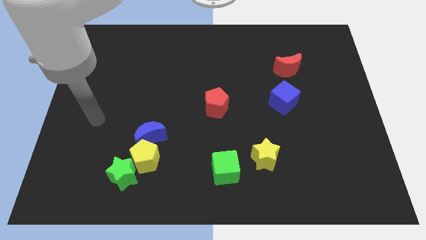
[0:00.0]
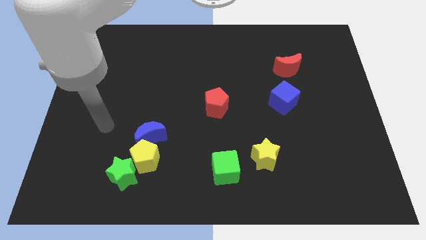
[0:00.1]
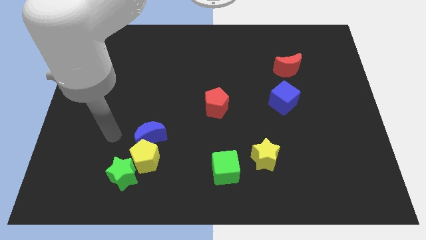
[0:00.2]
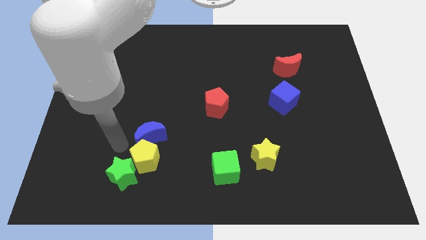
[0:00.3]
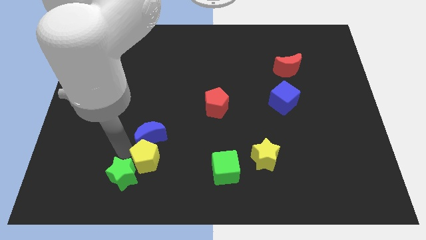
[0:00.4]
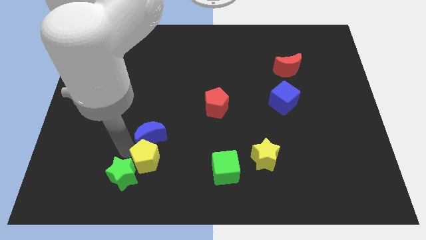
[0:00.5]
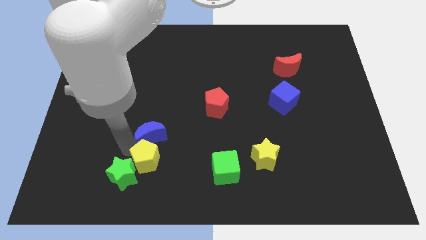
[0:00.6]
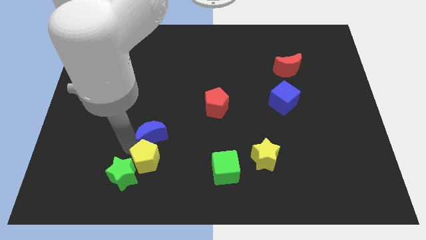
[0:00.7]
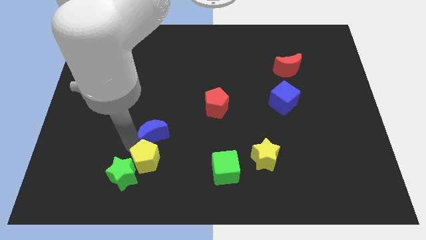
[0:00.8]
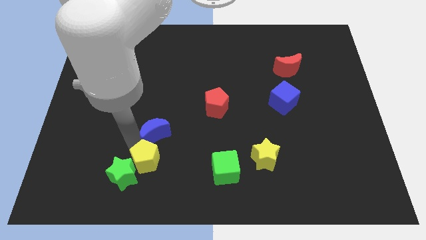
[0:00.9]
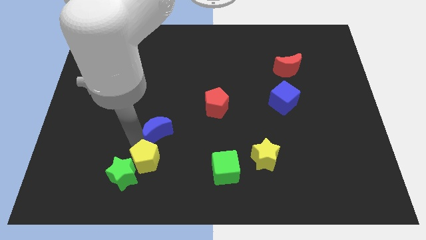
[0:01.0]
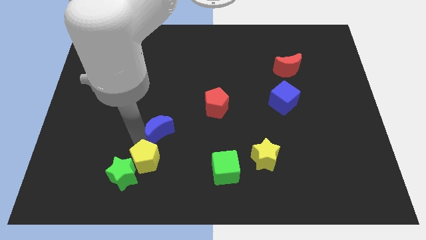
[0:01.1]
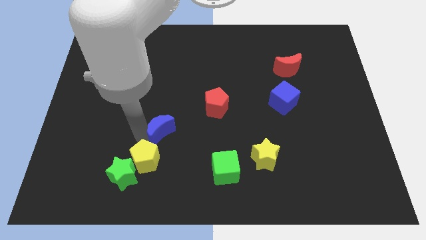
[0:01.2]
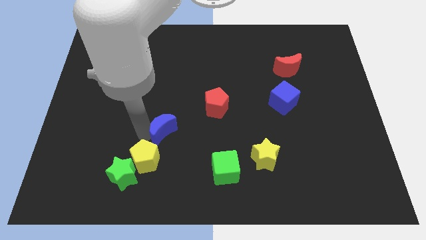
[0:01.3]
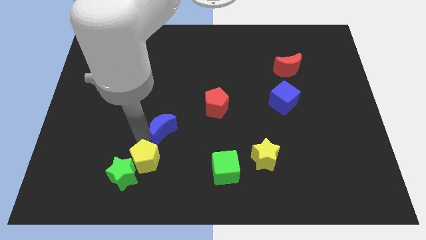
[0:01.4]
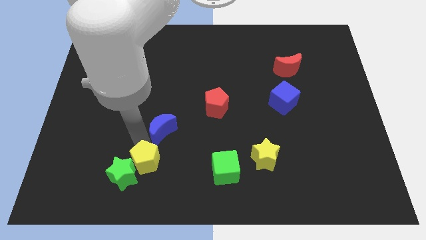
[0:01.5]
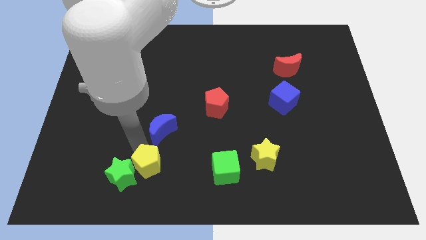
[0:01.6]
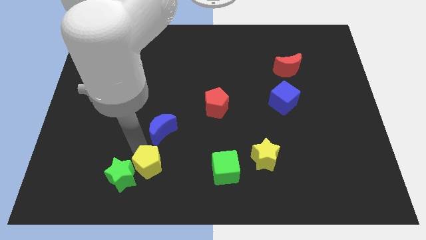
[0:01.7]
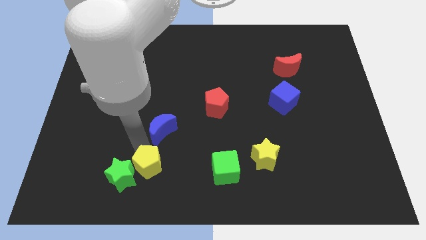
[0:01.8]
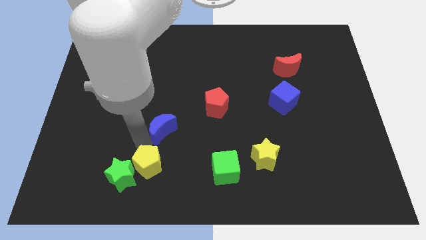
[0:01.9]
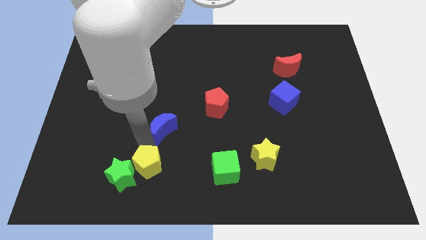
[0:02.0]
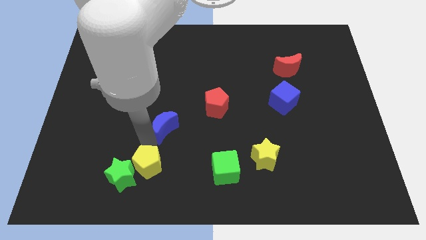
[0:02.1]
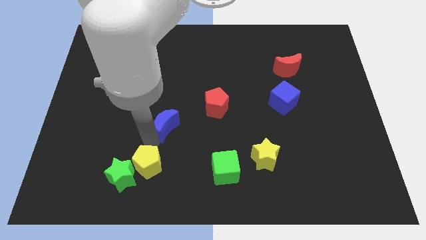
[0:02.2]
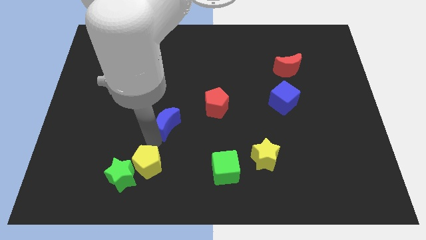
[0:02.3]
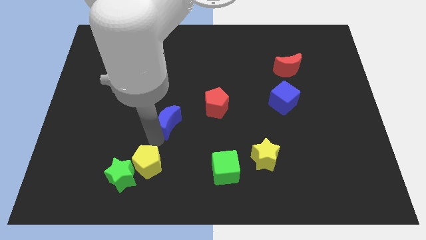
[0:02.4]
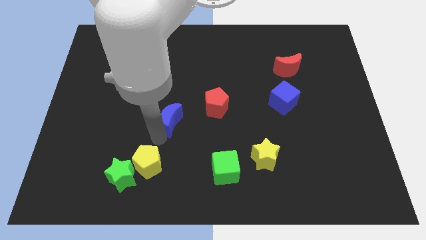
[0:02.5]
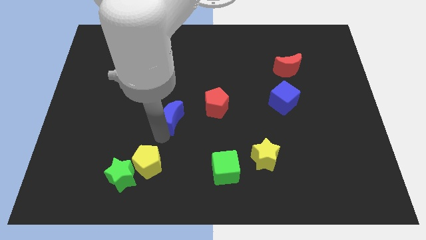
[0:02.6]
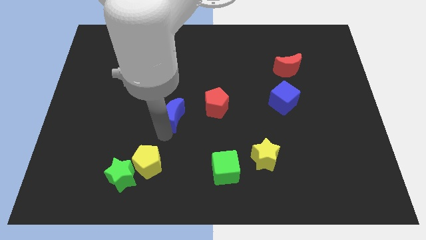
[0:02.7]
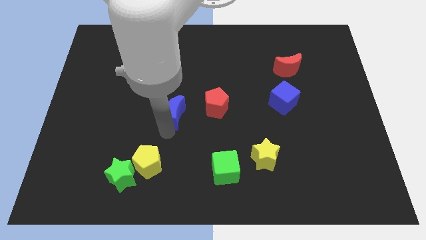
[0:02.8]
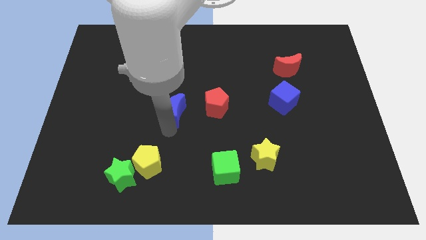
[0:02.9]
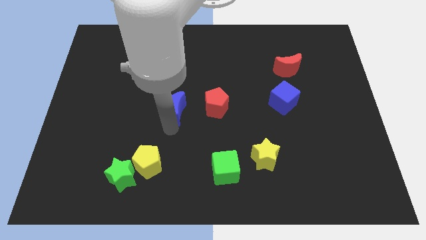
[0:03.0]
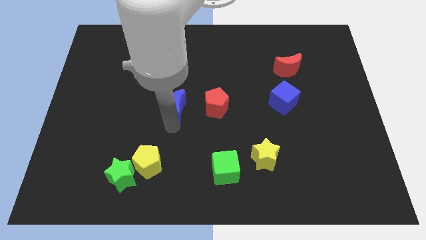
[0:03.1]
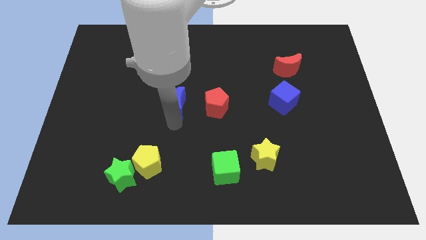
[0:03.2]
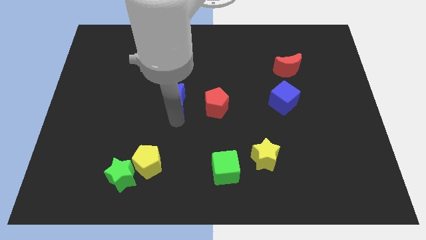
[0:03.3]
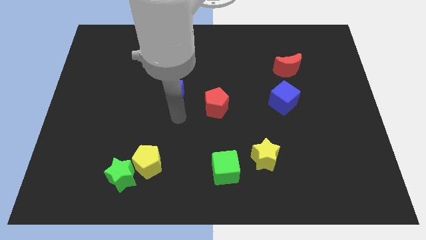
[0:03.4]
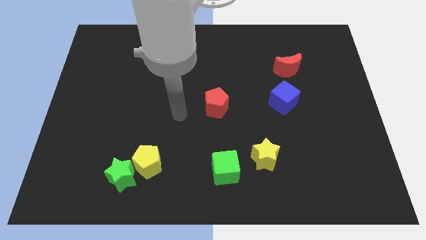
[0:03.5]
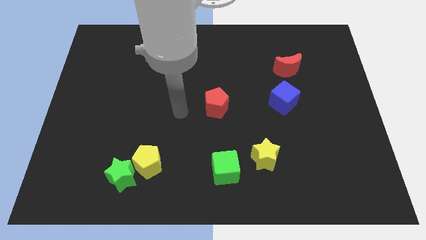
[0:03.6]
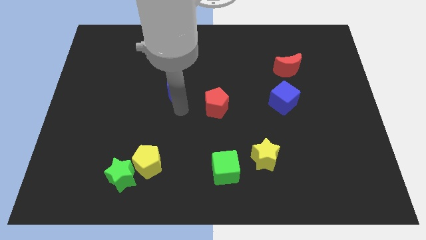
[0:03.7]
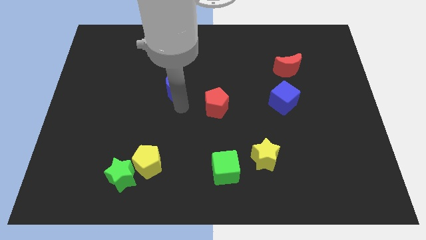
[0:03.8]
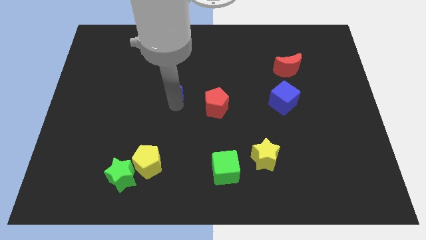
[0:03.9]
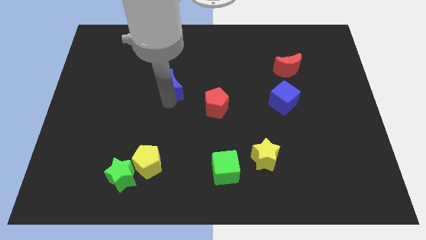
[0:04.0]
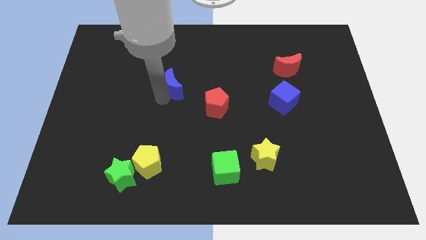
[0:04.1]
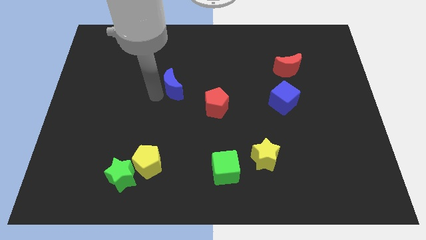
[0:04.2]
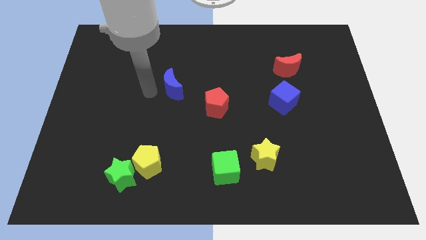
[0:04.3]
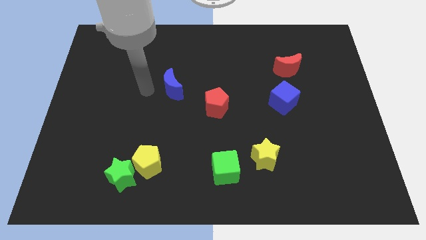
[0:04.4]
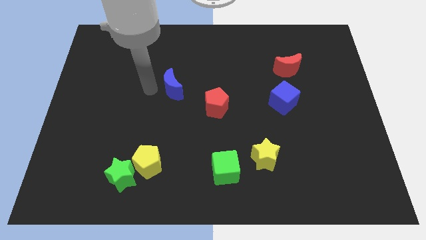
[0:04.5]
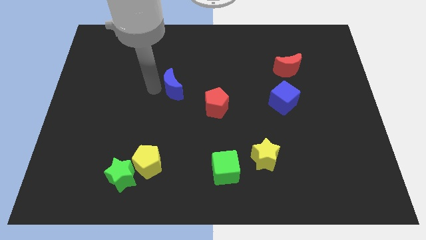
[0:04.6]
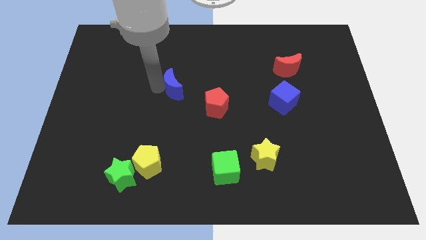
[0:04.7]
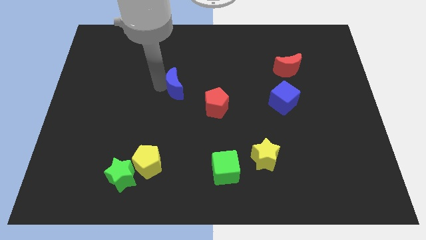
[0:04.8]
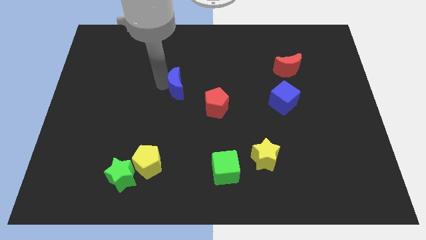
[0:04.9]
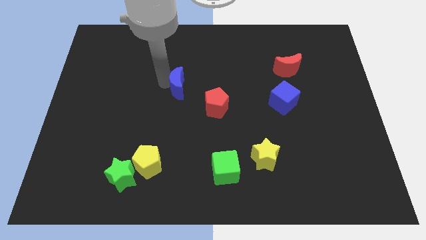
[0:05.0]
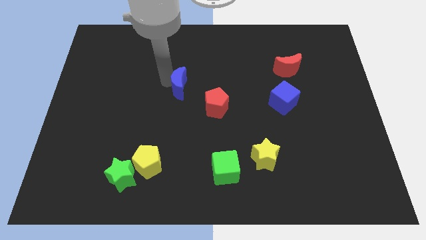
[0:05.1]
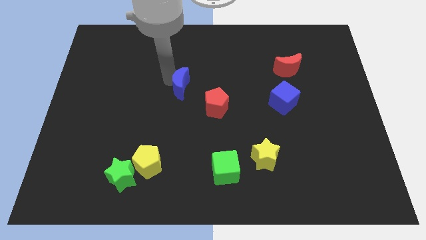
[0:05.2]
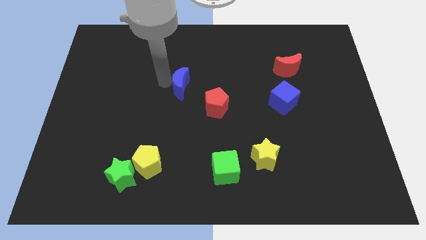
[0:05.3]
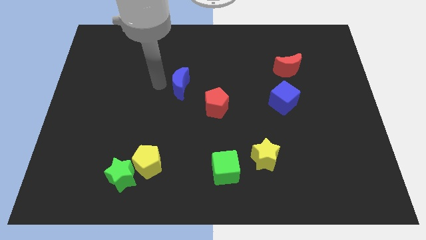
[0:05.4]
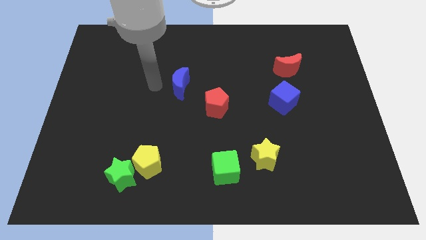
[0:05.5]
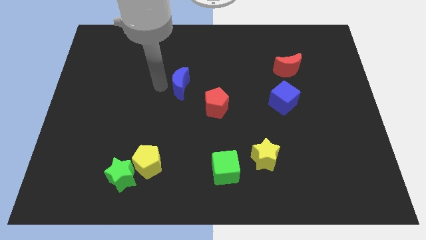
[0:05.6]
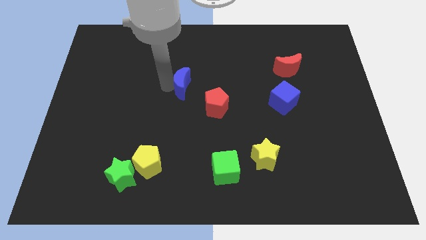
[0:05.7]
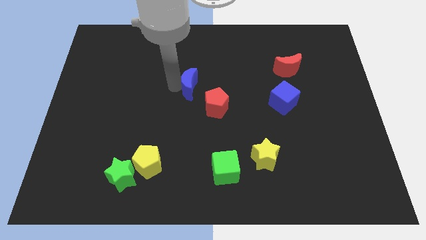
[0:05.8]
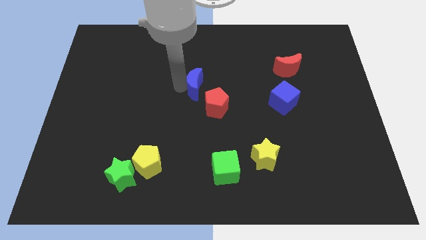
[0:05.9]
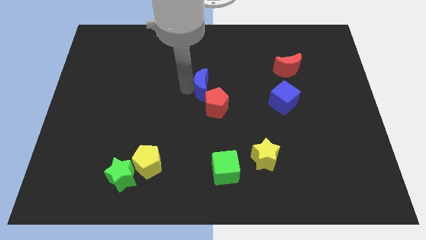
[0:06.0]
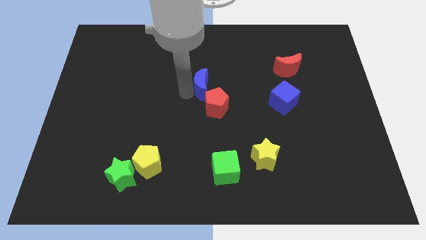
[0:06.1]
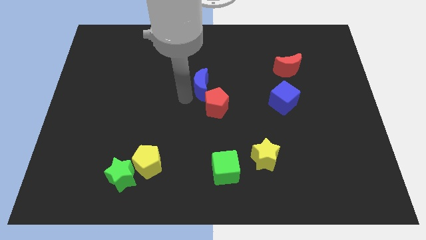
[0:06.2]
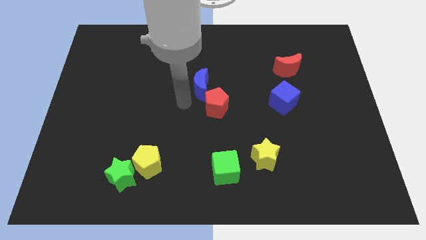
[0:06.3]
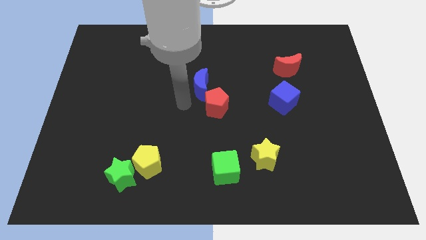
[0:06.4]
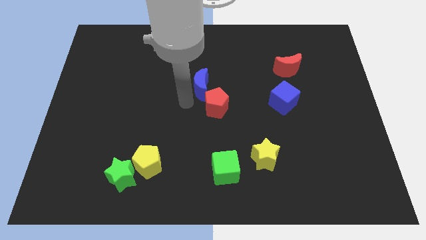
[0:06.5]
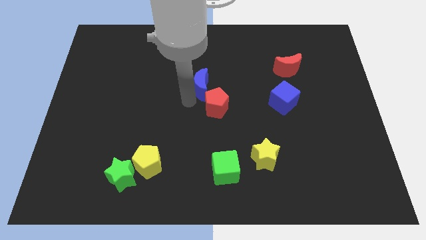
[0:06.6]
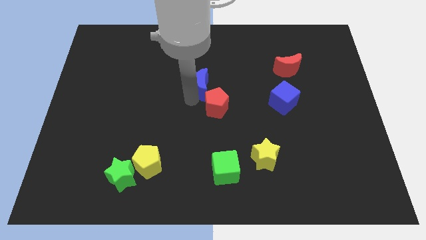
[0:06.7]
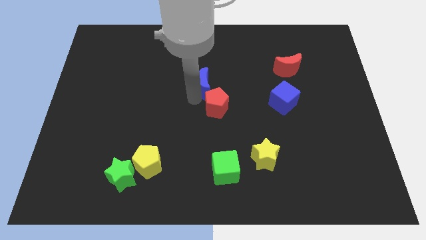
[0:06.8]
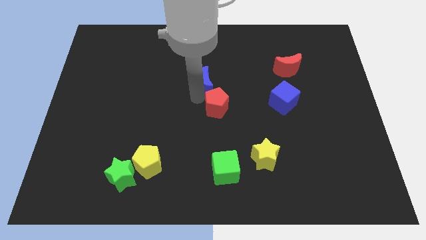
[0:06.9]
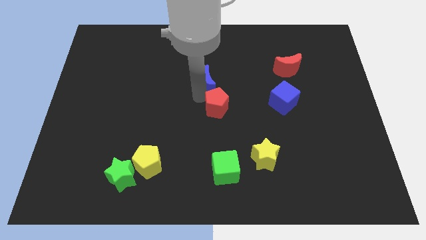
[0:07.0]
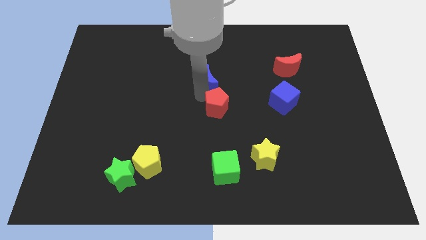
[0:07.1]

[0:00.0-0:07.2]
move the blue moon diagonally up and to the right

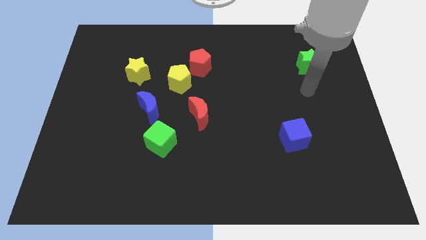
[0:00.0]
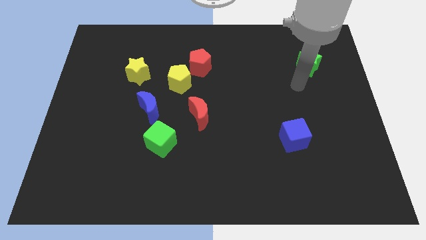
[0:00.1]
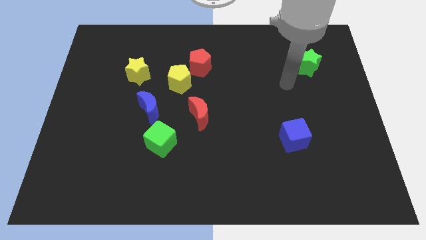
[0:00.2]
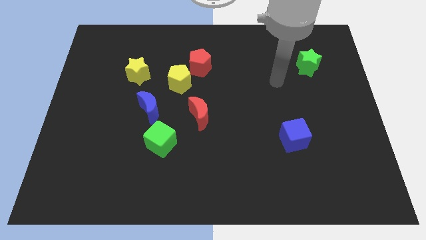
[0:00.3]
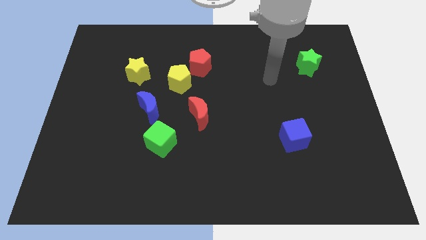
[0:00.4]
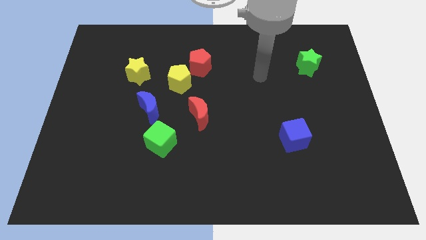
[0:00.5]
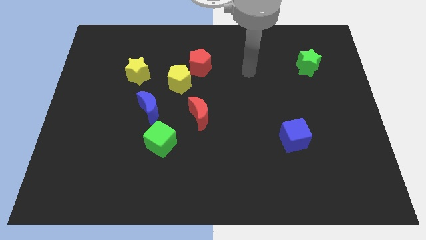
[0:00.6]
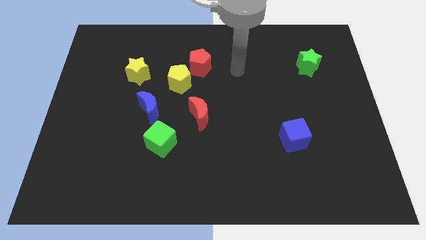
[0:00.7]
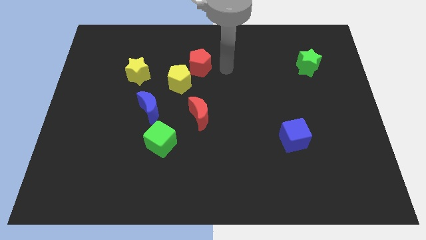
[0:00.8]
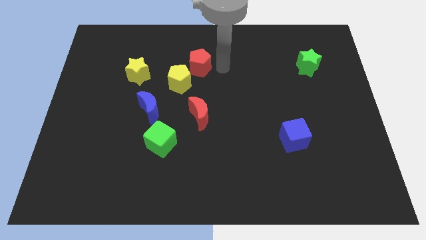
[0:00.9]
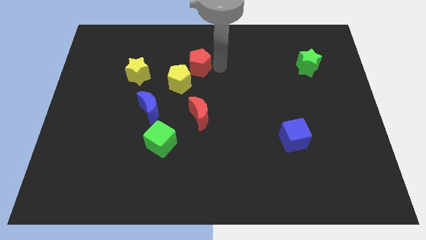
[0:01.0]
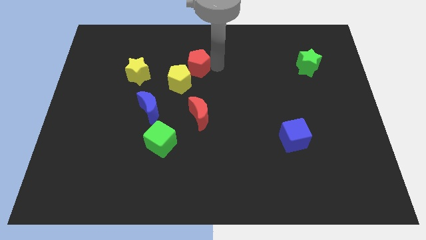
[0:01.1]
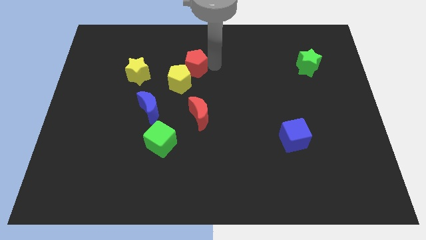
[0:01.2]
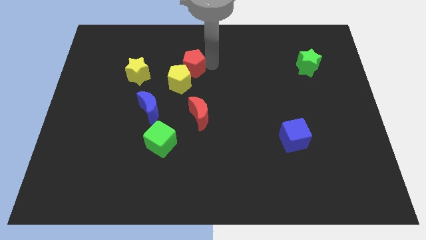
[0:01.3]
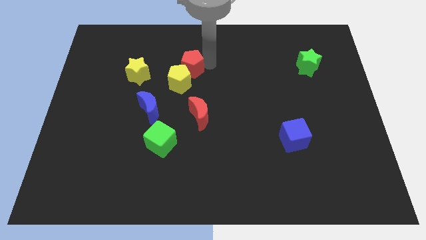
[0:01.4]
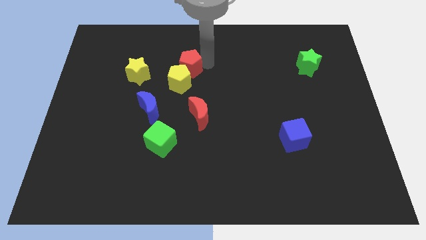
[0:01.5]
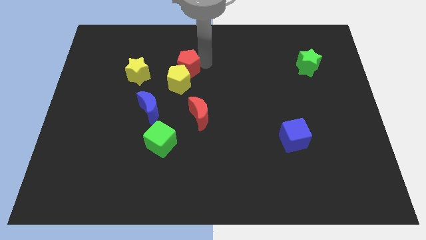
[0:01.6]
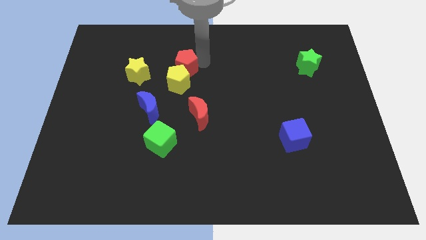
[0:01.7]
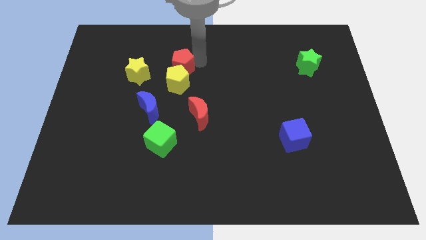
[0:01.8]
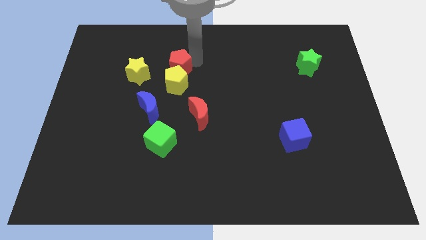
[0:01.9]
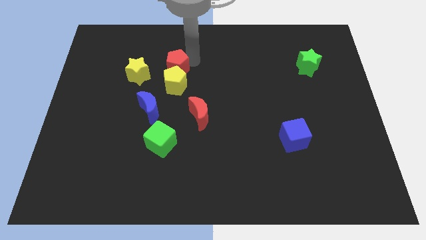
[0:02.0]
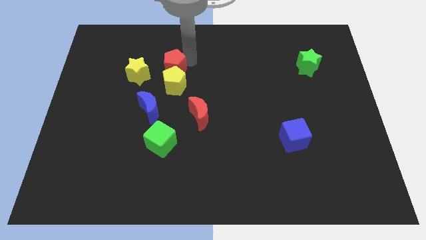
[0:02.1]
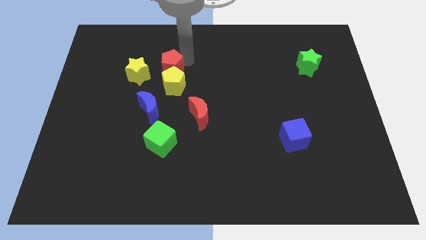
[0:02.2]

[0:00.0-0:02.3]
move the red pentagon left slightly
